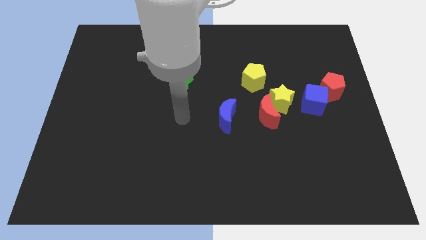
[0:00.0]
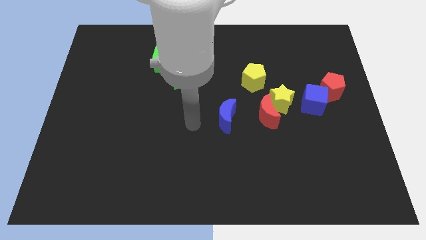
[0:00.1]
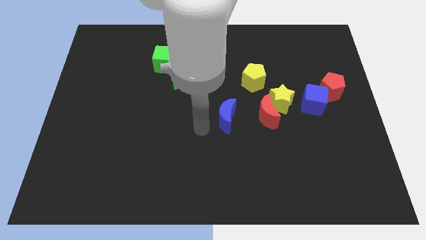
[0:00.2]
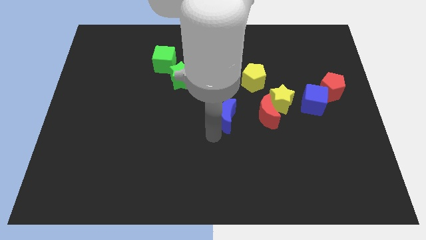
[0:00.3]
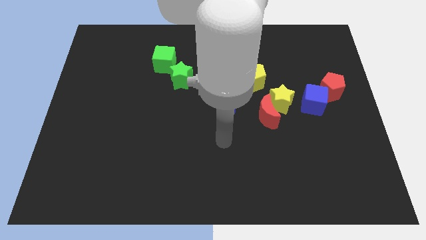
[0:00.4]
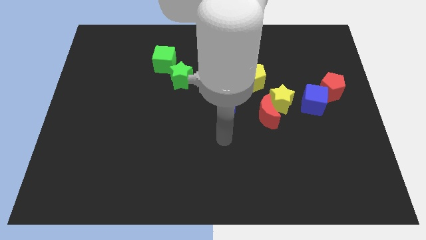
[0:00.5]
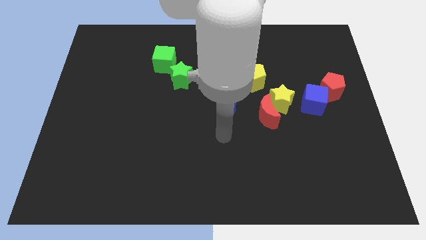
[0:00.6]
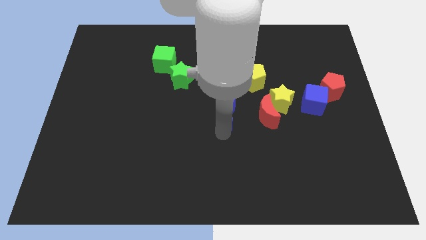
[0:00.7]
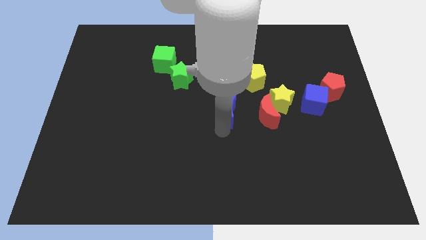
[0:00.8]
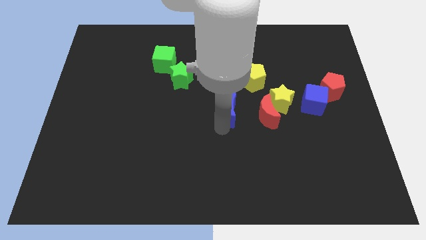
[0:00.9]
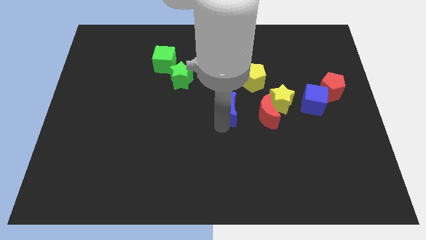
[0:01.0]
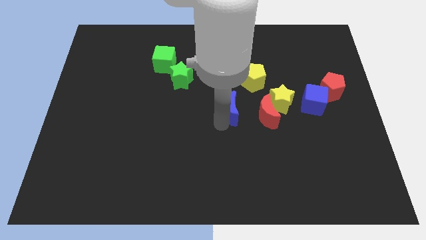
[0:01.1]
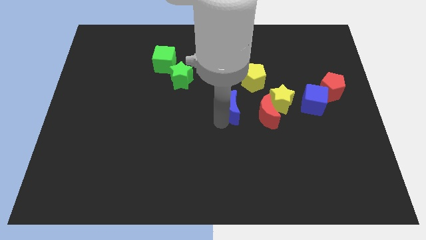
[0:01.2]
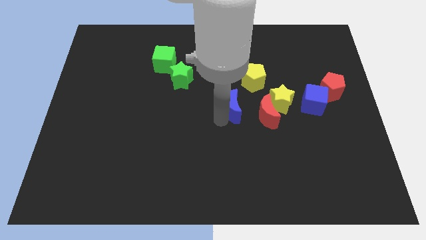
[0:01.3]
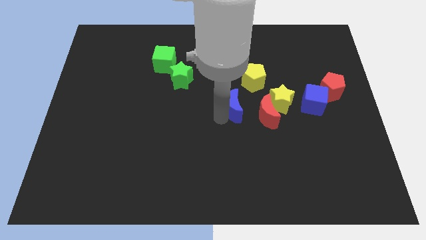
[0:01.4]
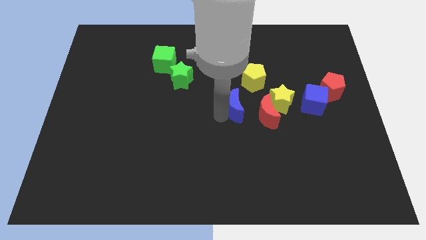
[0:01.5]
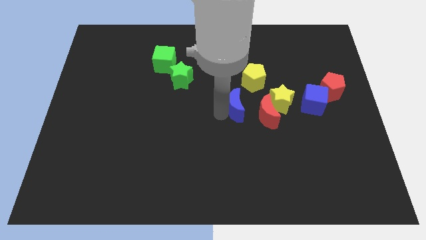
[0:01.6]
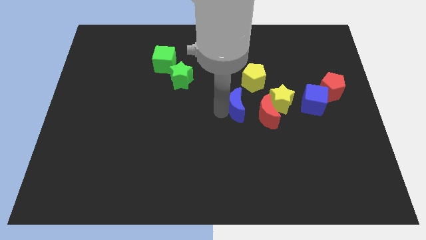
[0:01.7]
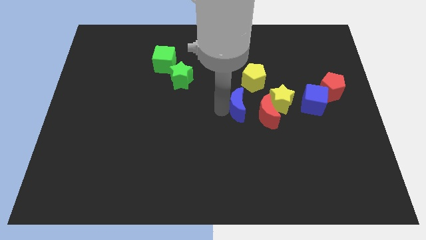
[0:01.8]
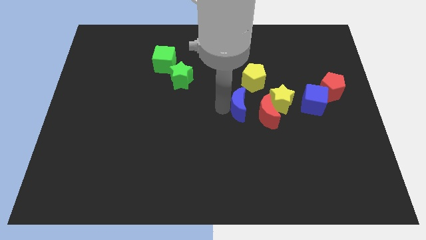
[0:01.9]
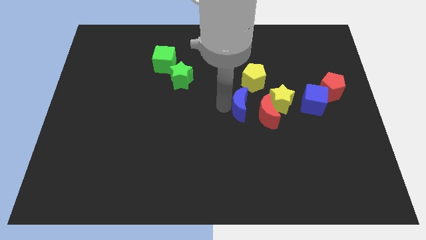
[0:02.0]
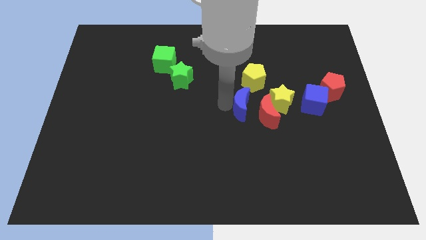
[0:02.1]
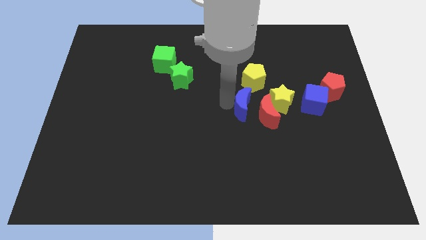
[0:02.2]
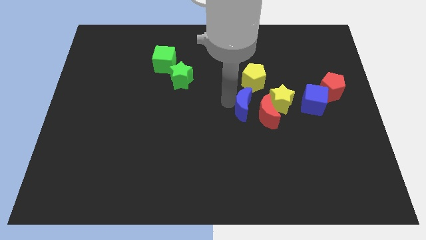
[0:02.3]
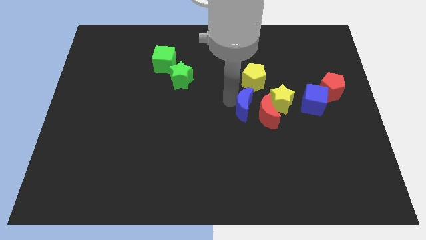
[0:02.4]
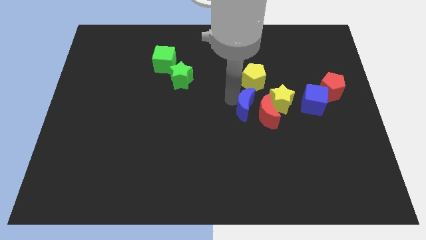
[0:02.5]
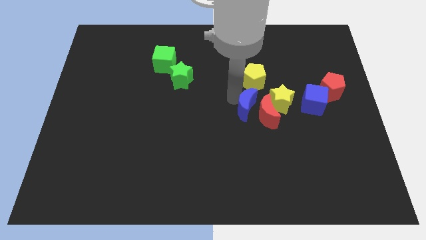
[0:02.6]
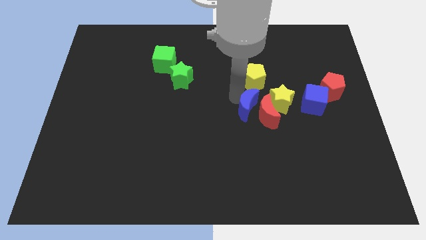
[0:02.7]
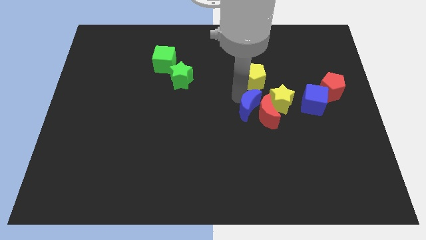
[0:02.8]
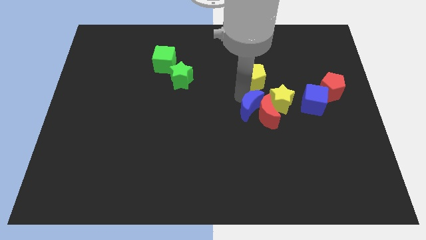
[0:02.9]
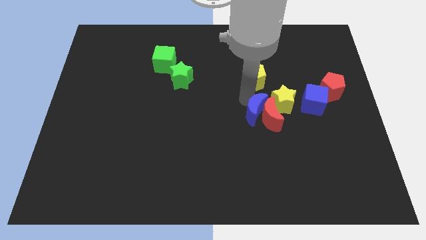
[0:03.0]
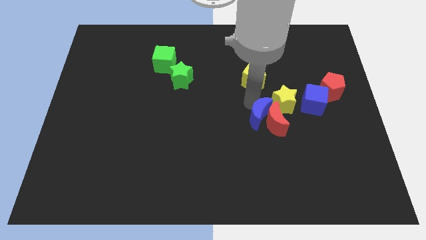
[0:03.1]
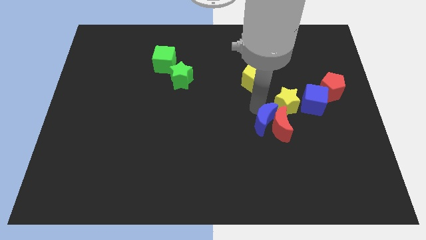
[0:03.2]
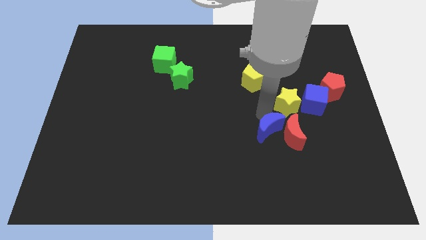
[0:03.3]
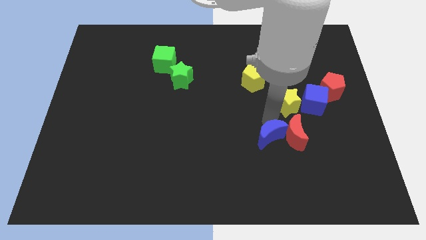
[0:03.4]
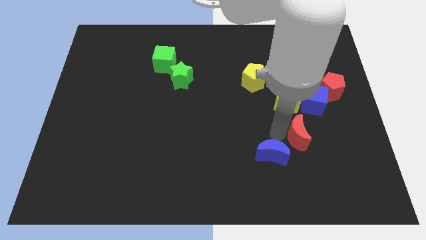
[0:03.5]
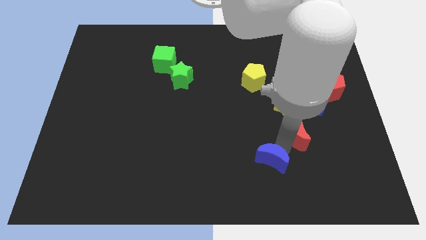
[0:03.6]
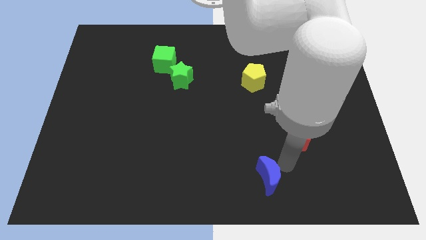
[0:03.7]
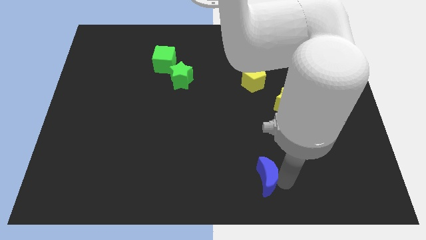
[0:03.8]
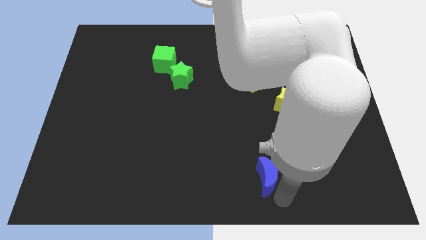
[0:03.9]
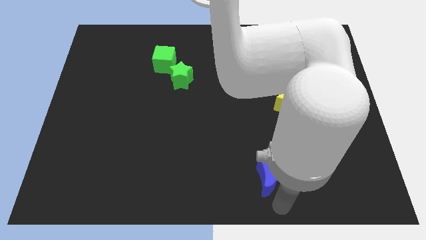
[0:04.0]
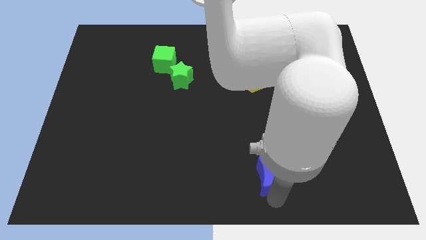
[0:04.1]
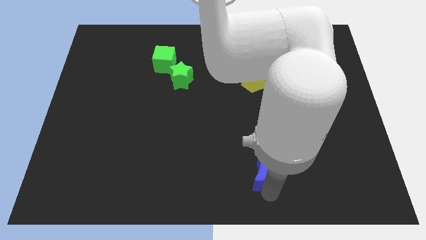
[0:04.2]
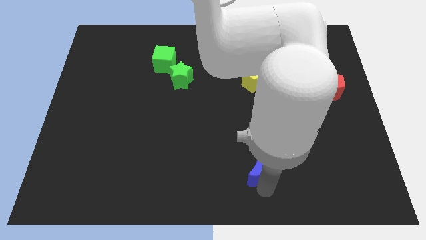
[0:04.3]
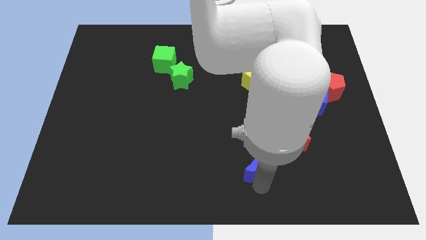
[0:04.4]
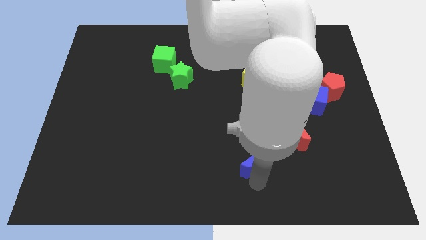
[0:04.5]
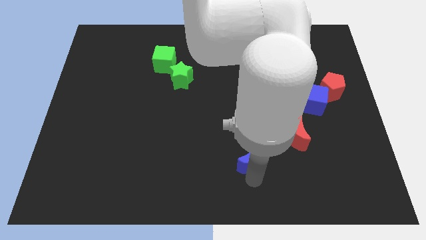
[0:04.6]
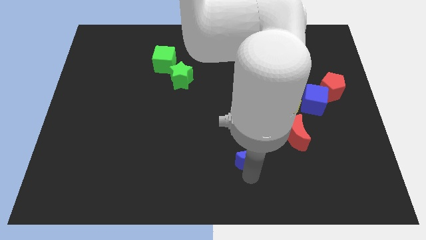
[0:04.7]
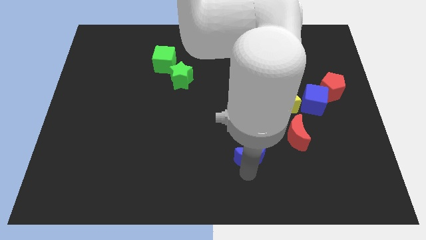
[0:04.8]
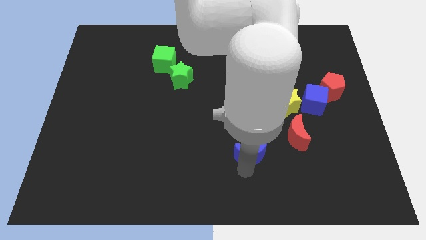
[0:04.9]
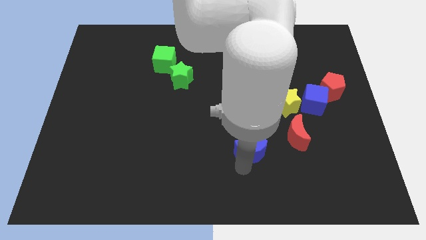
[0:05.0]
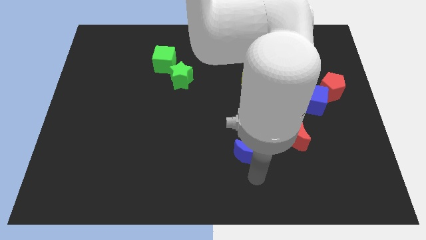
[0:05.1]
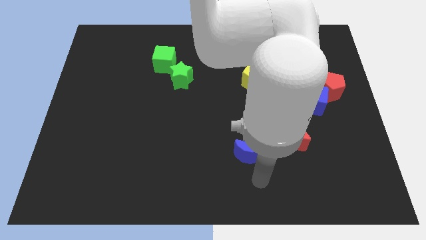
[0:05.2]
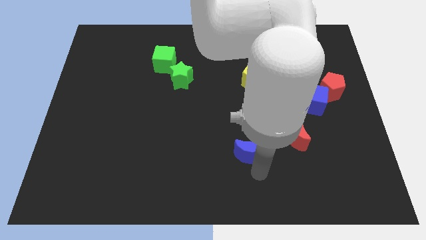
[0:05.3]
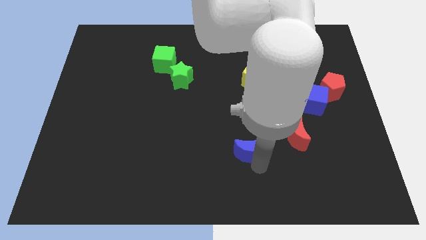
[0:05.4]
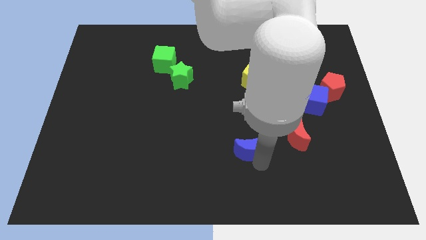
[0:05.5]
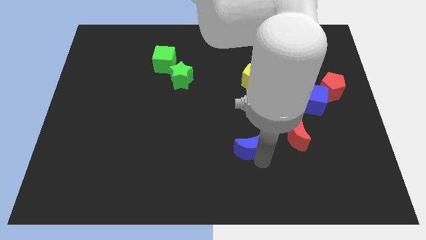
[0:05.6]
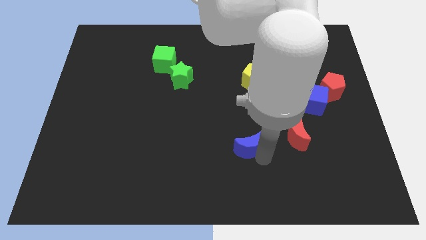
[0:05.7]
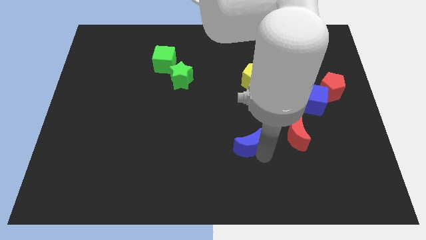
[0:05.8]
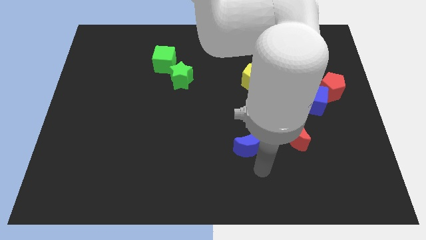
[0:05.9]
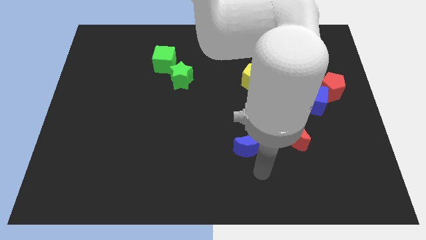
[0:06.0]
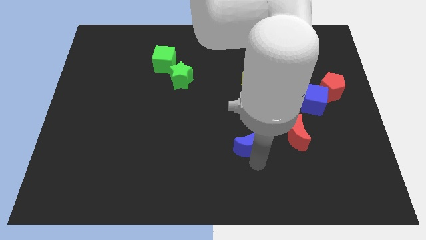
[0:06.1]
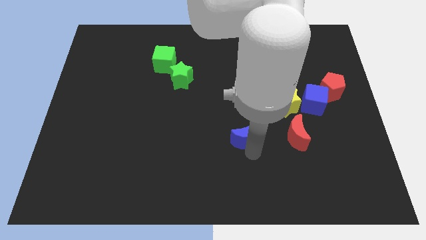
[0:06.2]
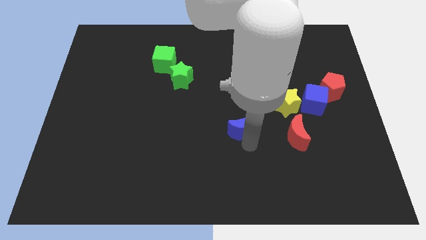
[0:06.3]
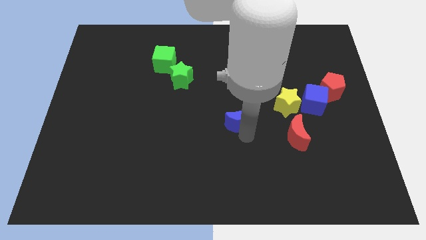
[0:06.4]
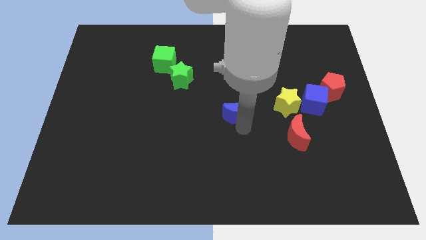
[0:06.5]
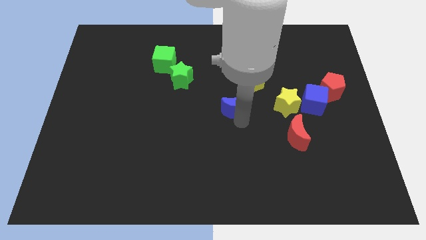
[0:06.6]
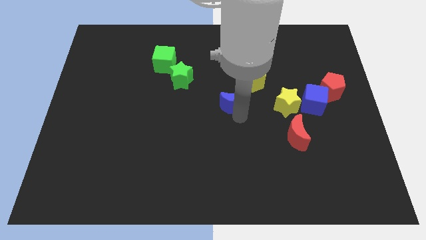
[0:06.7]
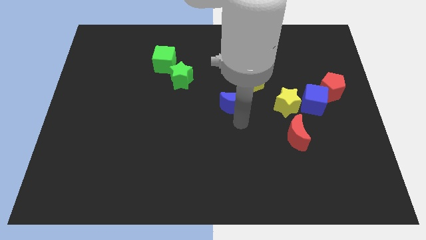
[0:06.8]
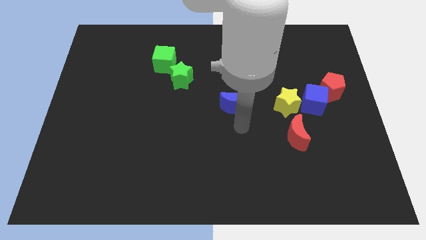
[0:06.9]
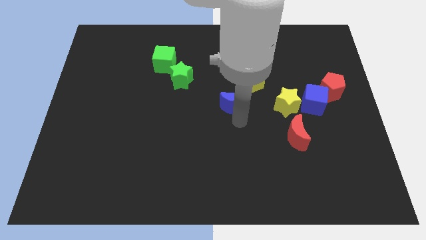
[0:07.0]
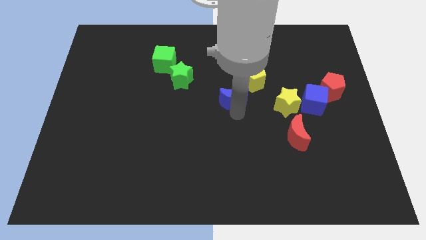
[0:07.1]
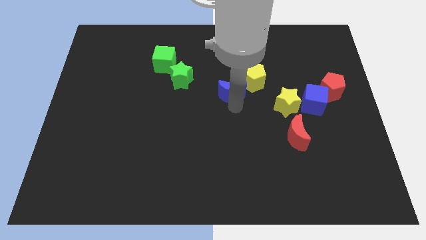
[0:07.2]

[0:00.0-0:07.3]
slightly push the blue moon up

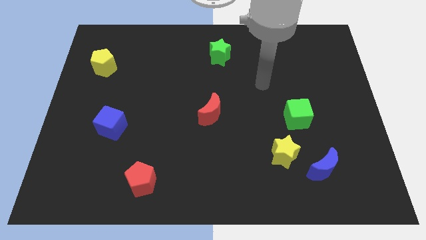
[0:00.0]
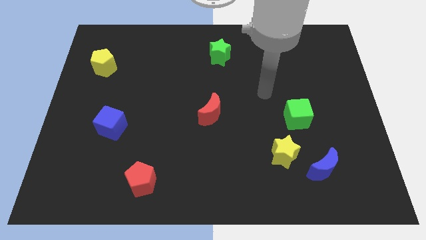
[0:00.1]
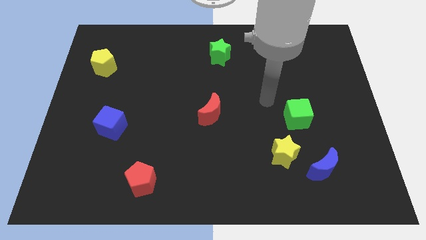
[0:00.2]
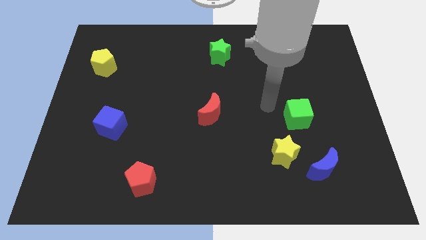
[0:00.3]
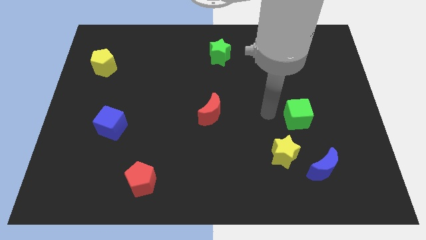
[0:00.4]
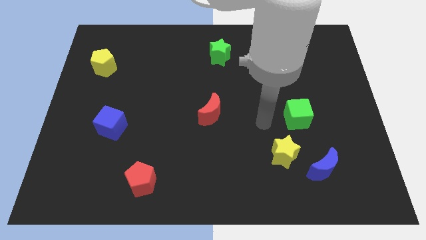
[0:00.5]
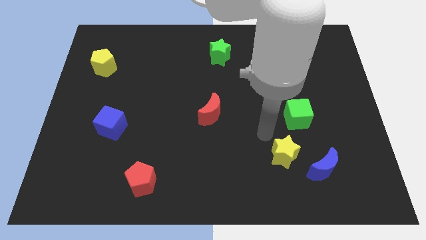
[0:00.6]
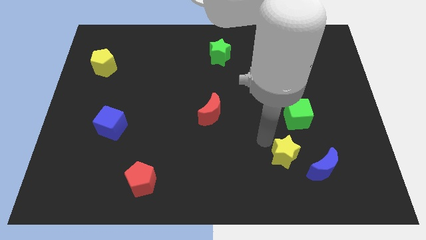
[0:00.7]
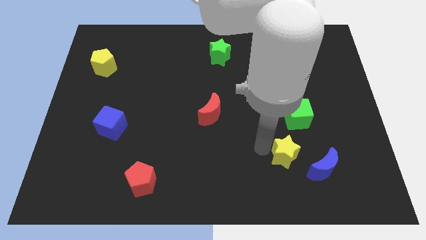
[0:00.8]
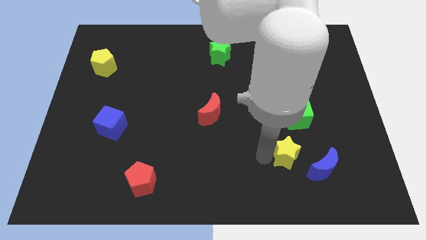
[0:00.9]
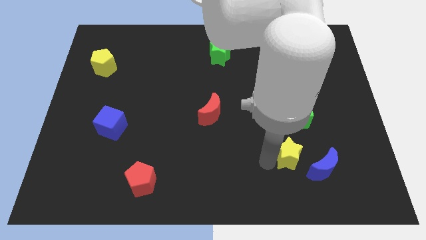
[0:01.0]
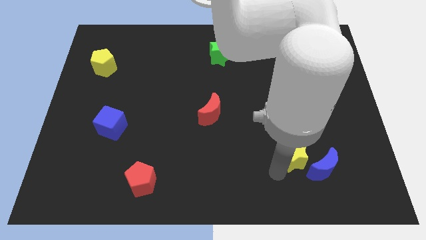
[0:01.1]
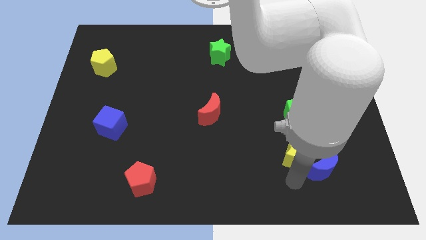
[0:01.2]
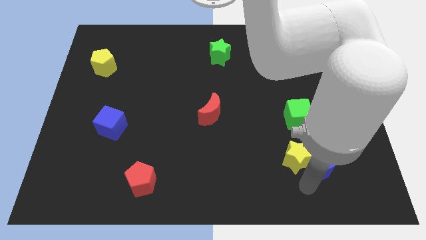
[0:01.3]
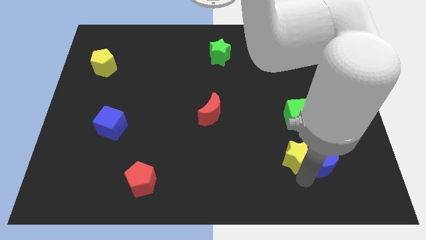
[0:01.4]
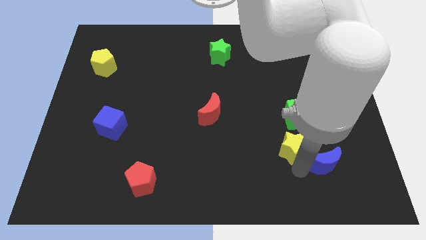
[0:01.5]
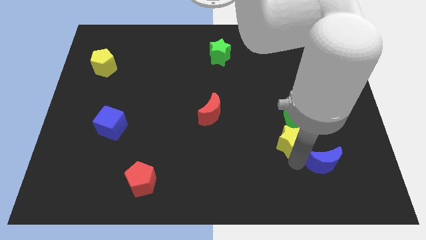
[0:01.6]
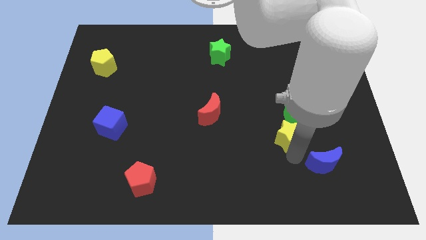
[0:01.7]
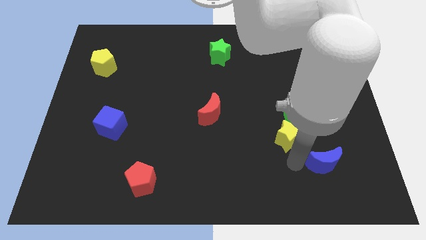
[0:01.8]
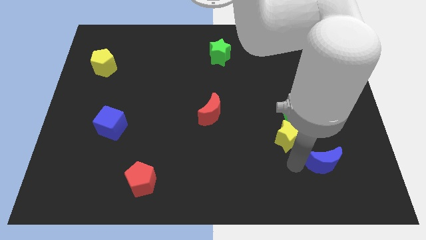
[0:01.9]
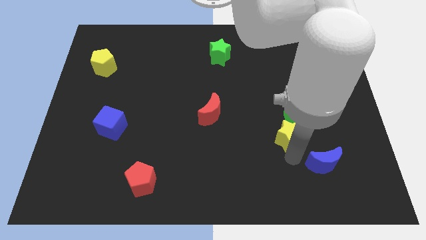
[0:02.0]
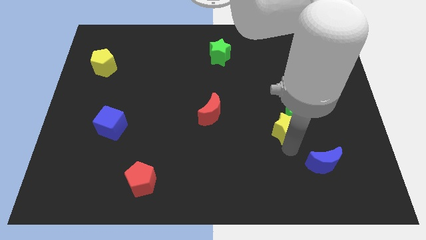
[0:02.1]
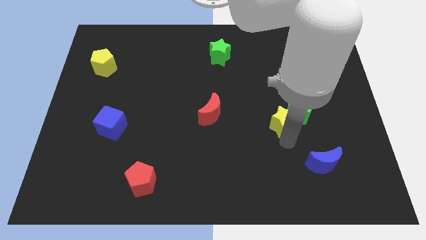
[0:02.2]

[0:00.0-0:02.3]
slightly push the yellow star up
